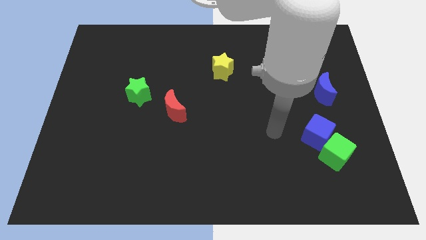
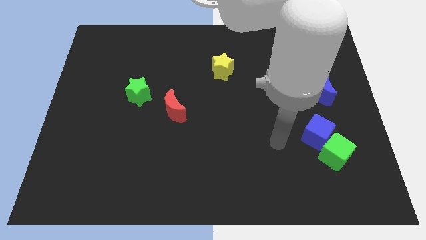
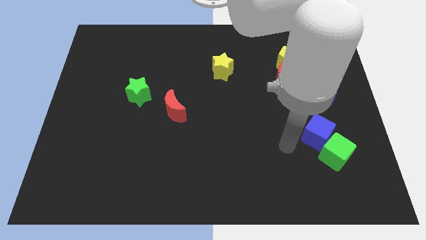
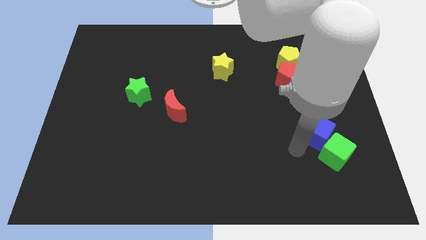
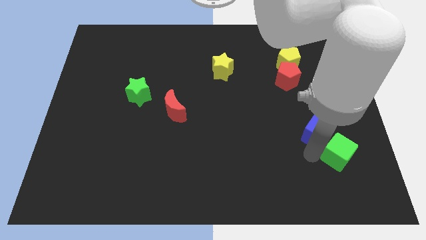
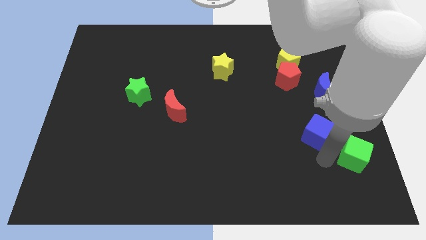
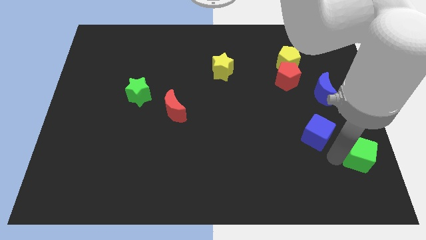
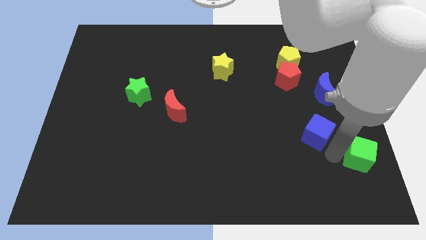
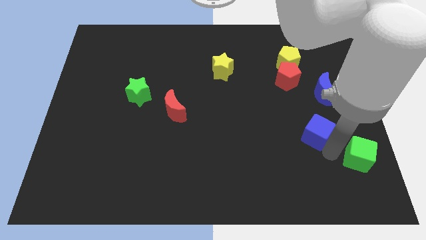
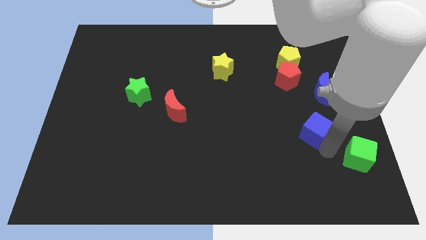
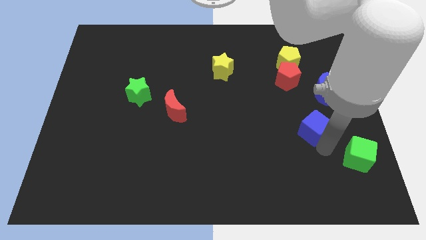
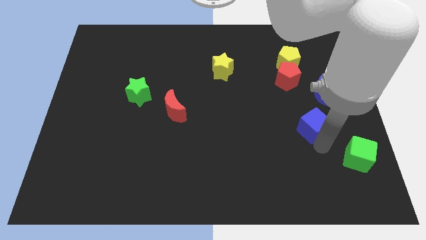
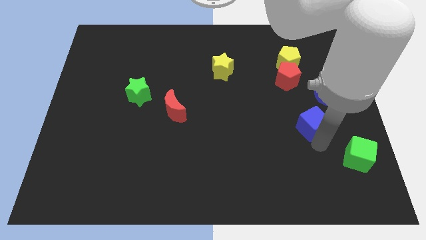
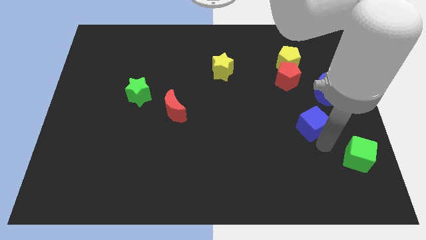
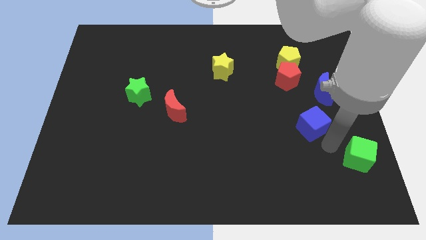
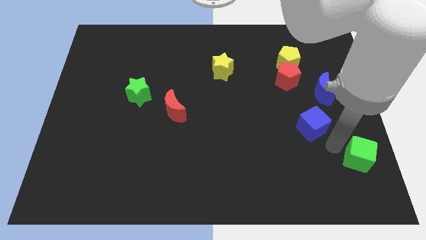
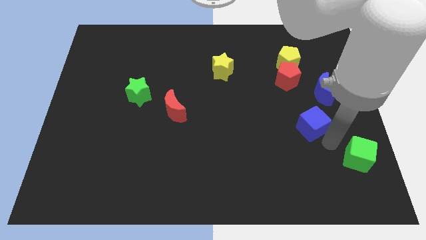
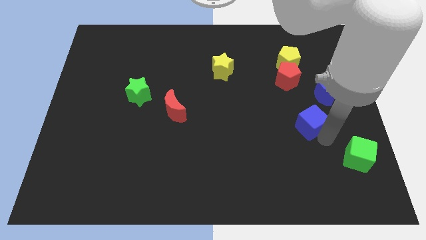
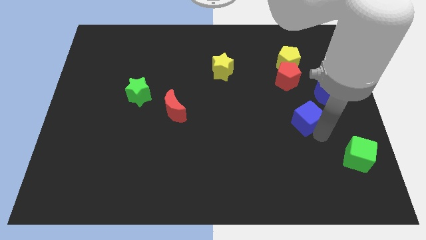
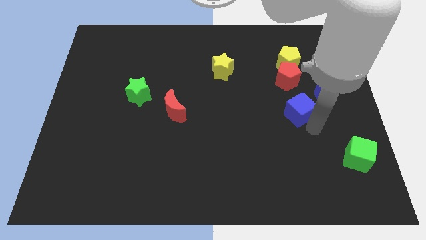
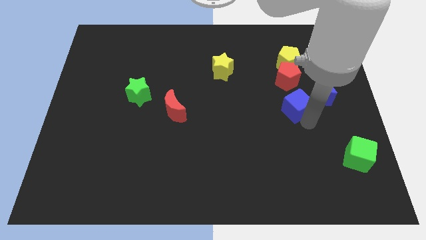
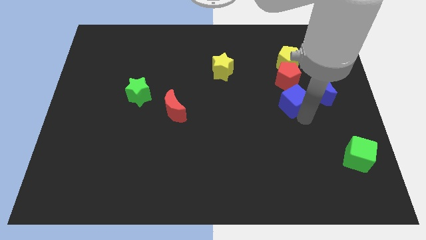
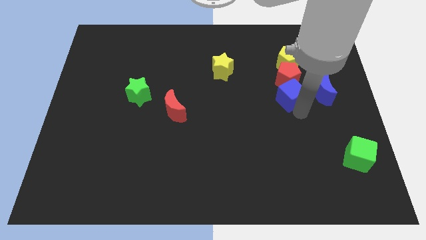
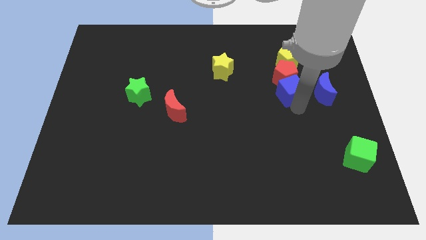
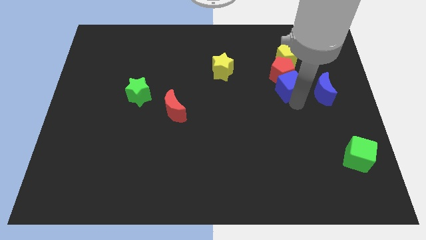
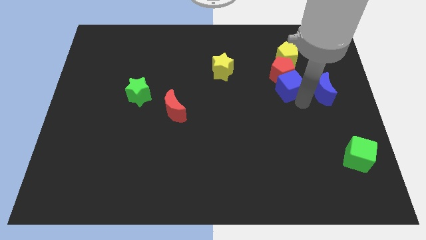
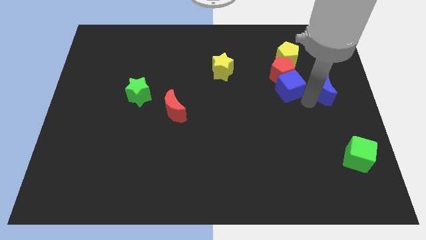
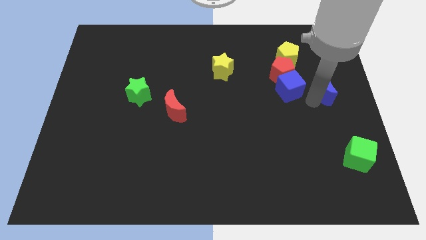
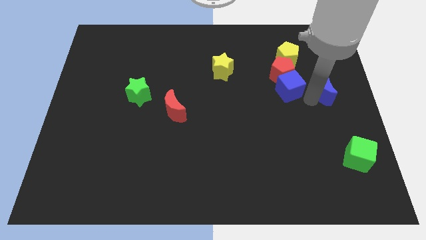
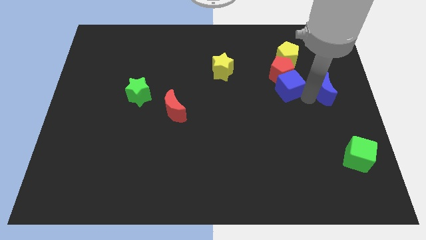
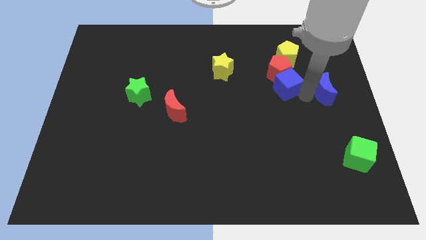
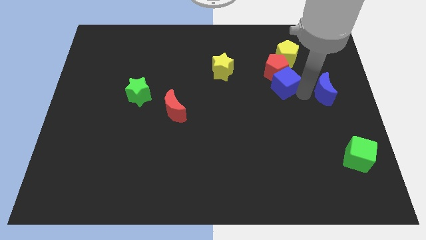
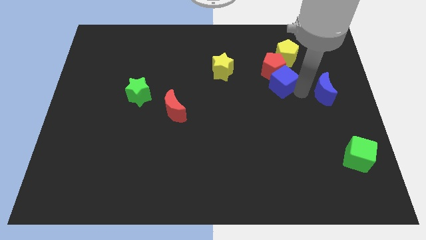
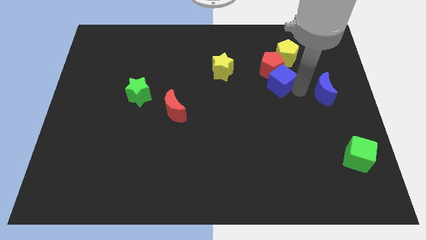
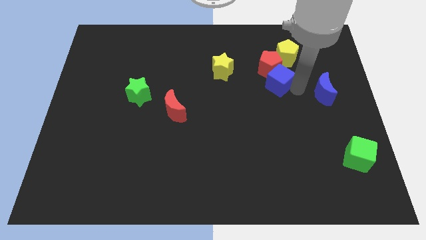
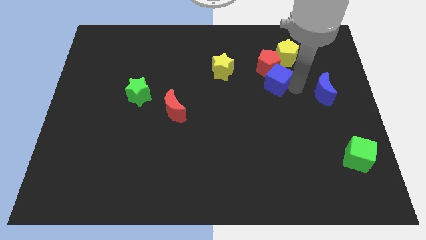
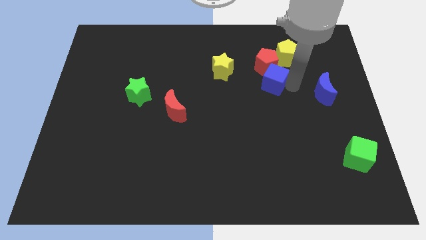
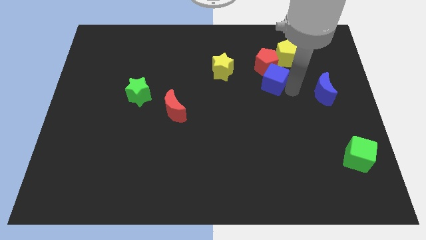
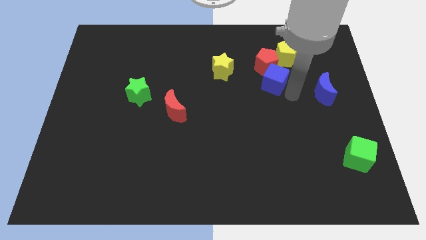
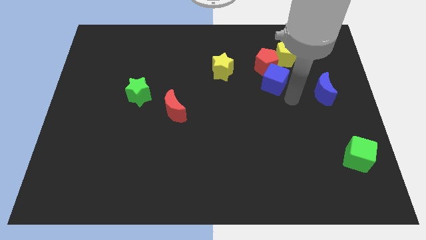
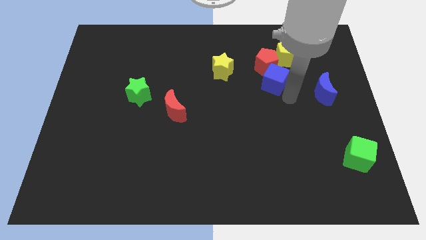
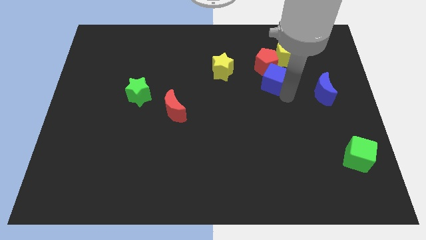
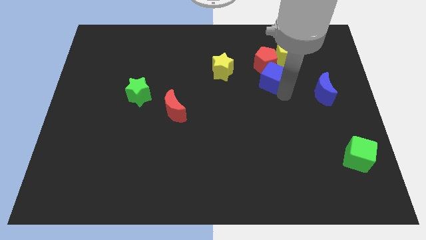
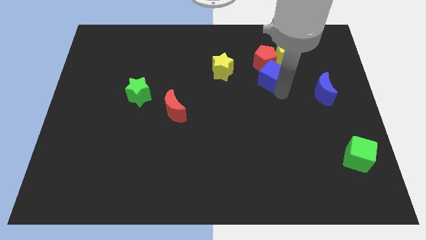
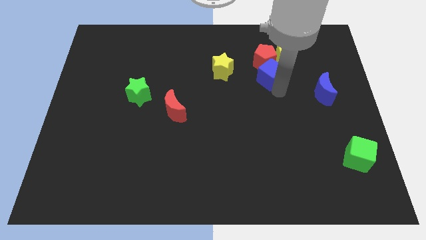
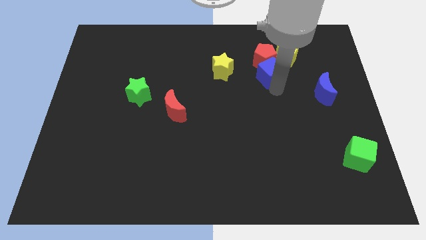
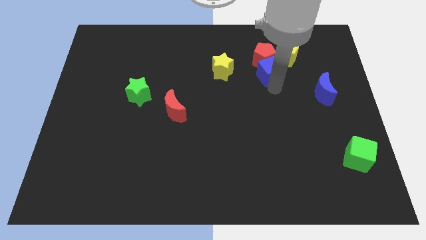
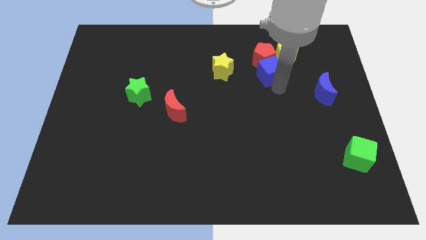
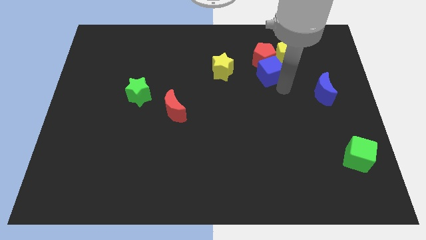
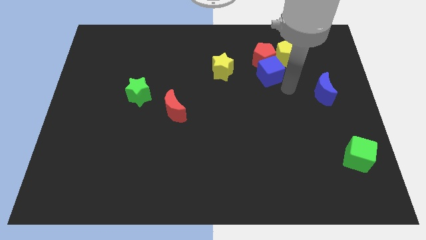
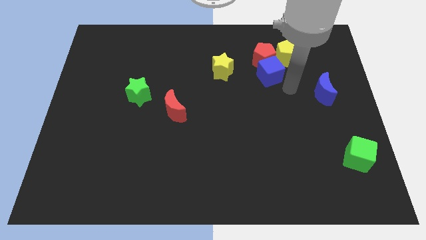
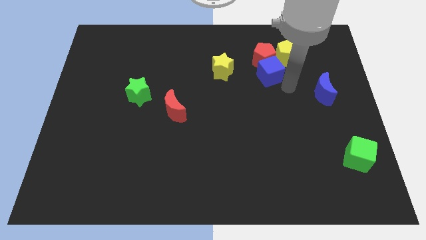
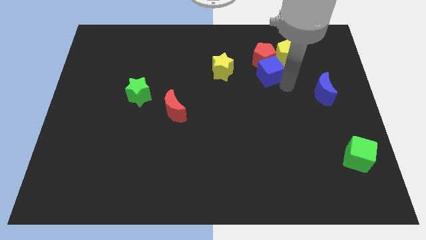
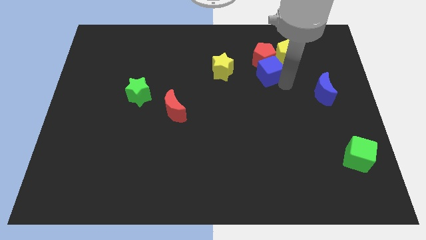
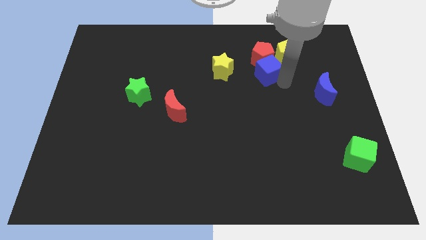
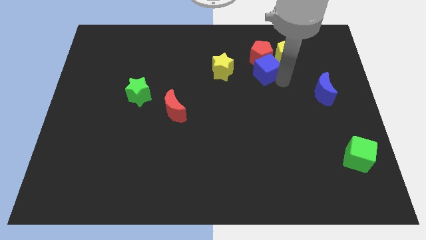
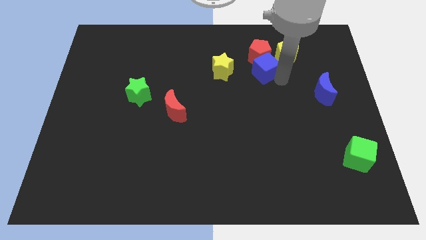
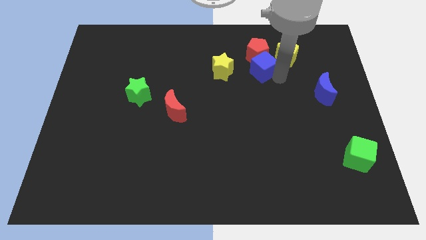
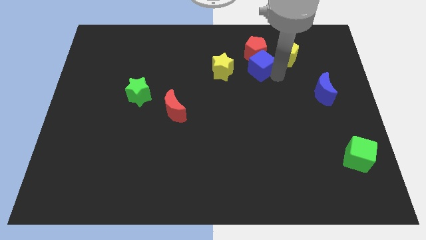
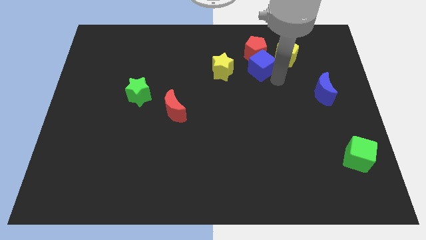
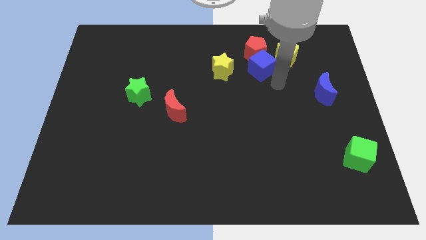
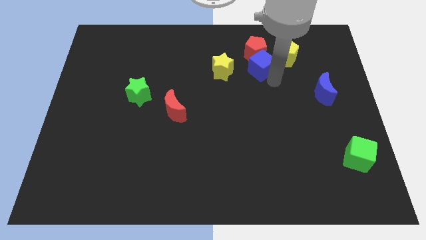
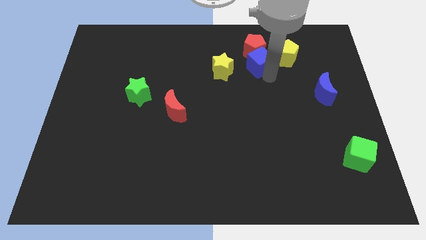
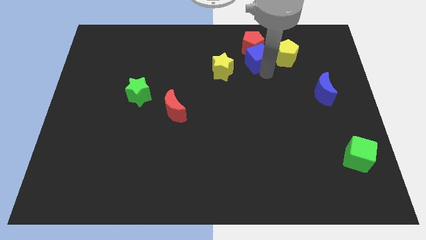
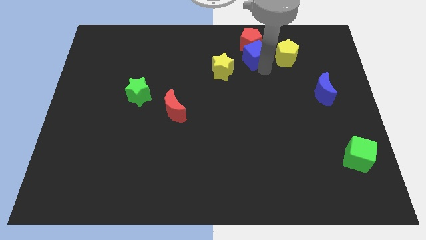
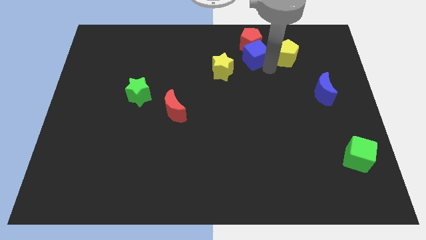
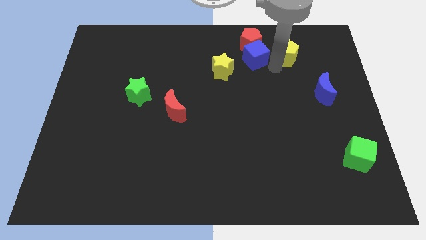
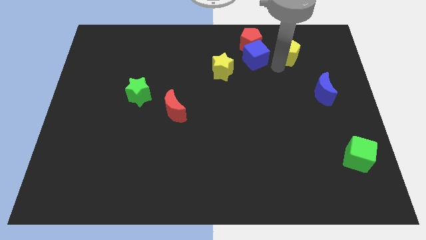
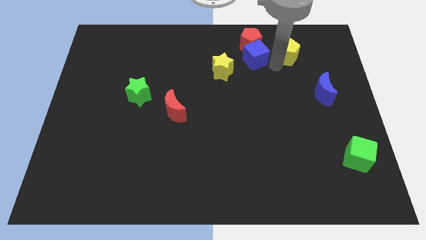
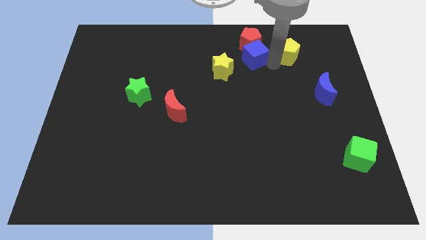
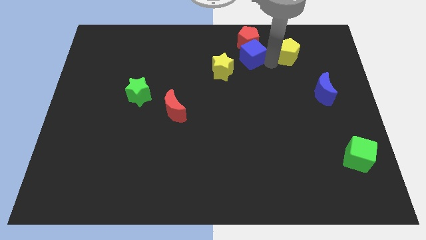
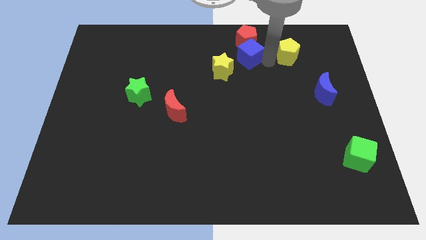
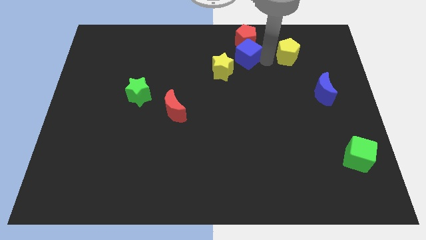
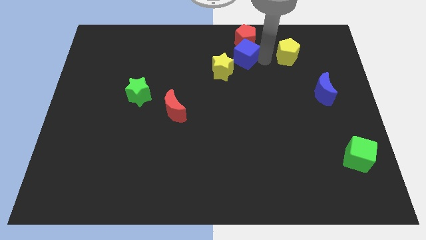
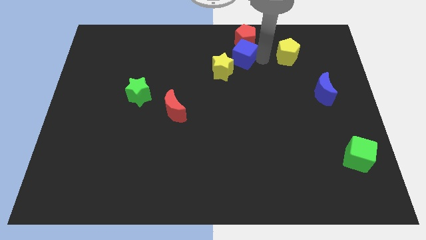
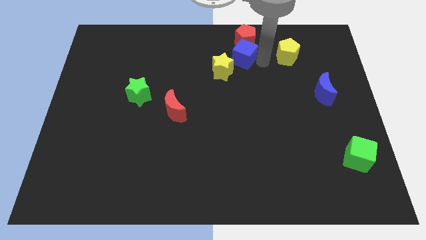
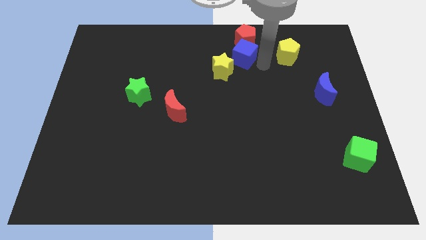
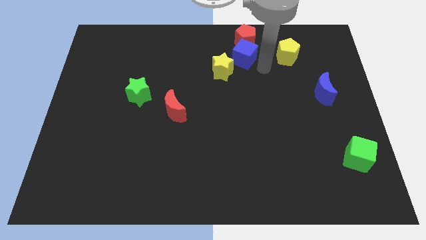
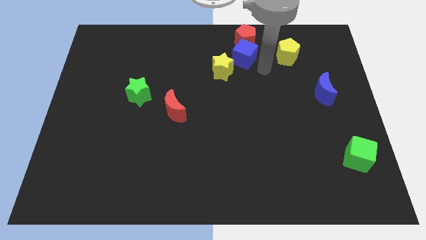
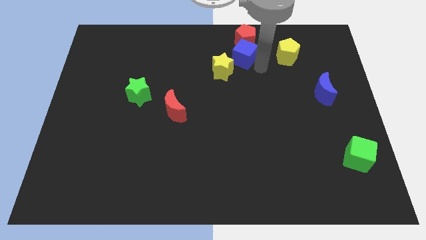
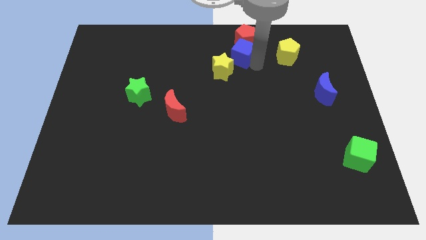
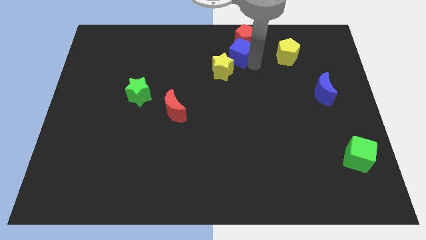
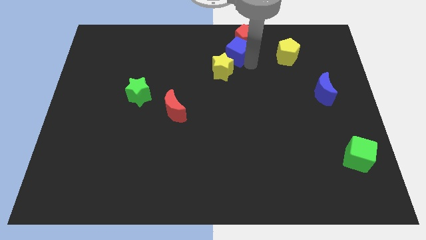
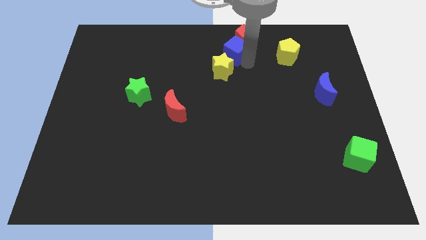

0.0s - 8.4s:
slide the blue cube to the top side
